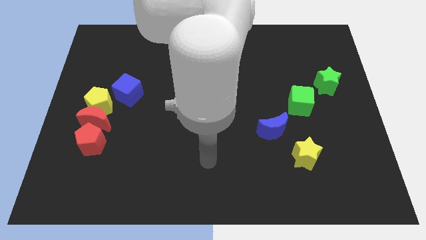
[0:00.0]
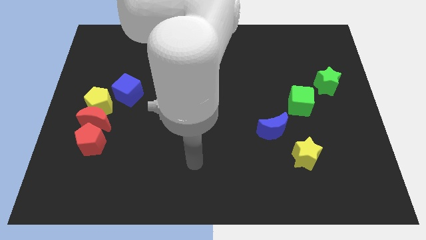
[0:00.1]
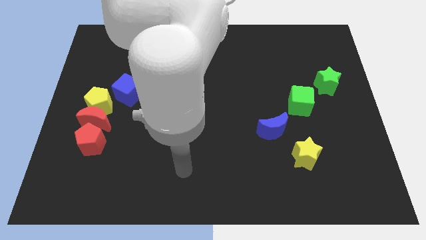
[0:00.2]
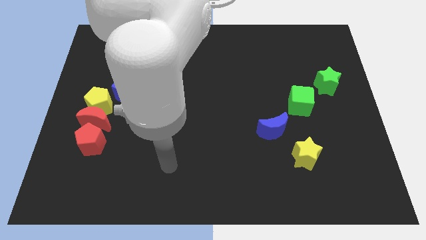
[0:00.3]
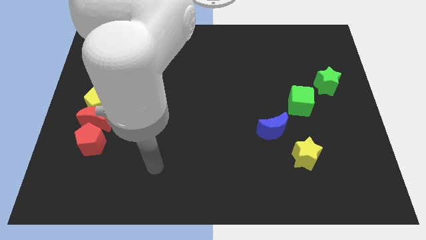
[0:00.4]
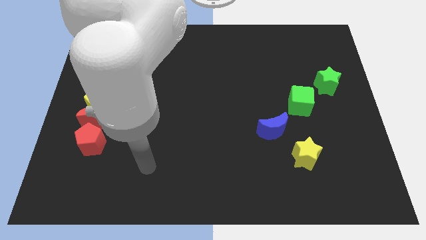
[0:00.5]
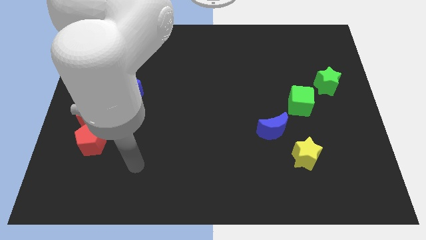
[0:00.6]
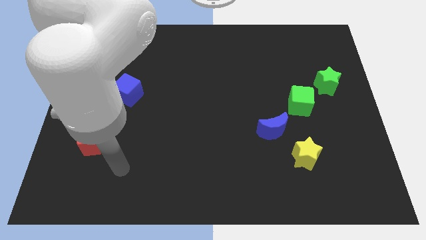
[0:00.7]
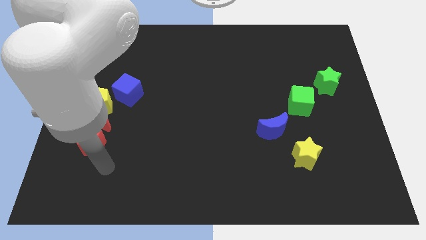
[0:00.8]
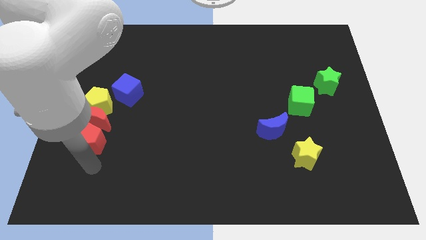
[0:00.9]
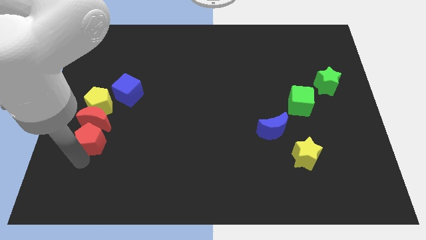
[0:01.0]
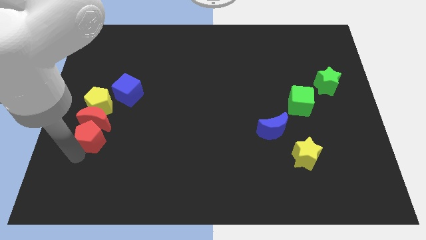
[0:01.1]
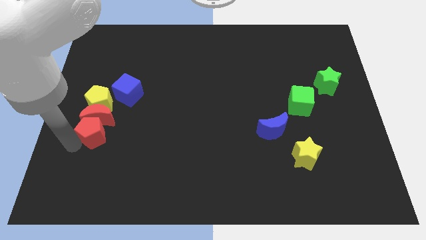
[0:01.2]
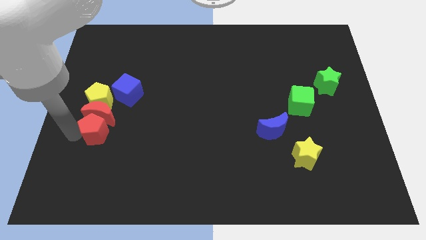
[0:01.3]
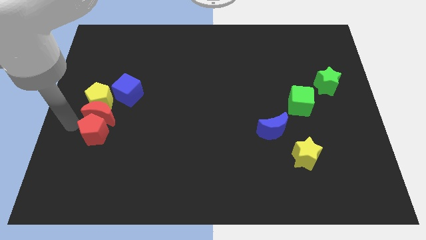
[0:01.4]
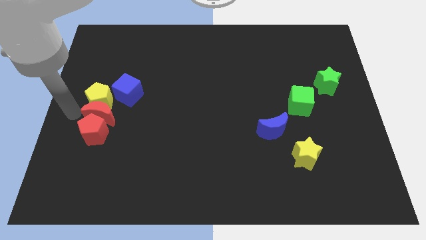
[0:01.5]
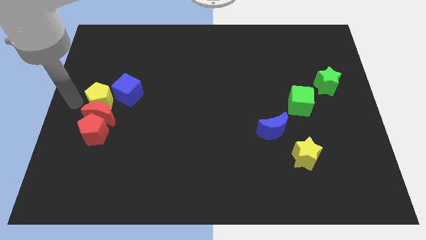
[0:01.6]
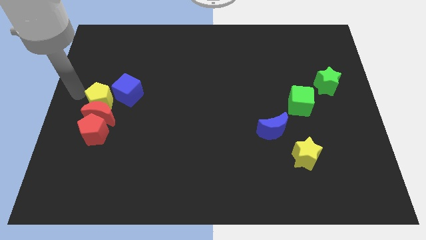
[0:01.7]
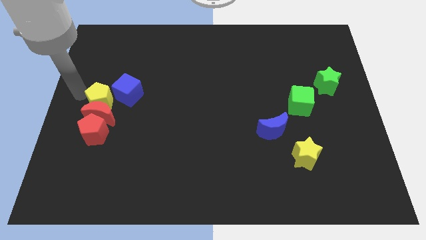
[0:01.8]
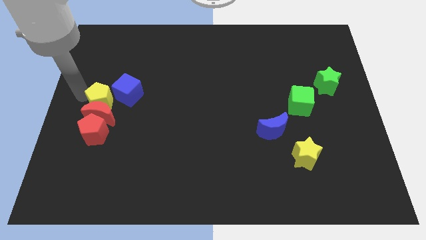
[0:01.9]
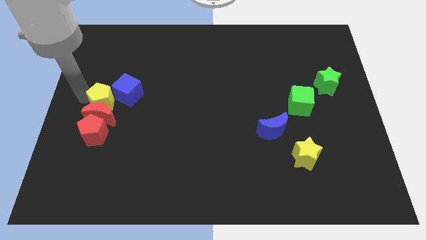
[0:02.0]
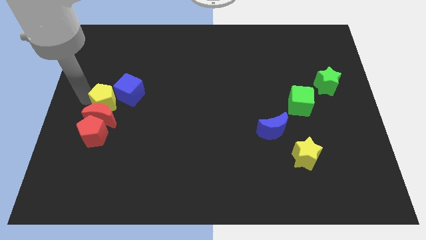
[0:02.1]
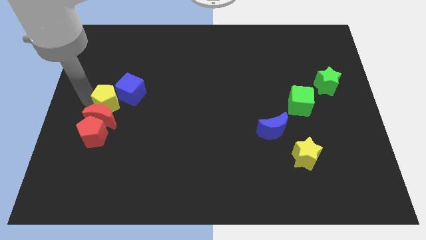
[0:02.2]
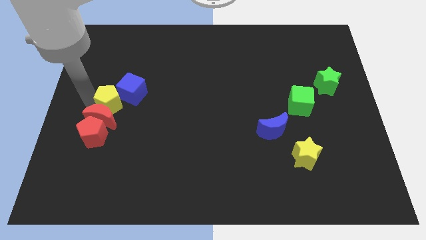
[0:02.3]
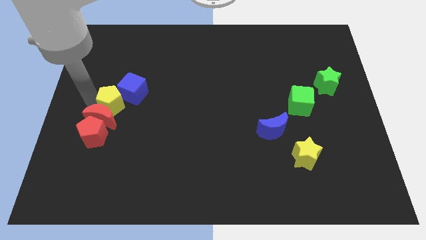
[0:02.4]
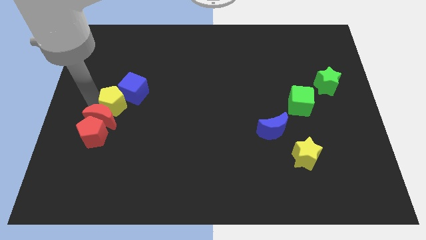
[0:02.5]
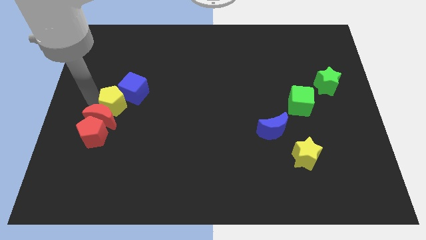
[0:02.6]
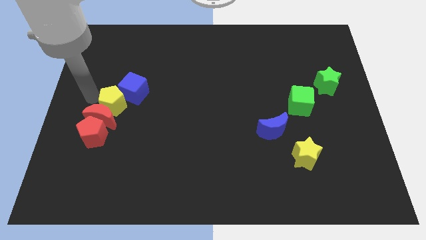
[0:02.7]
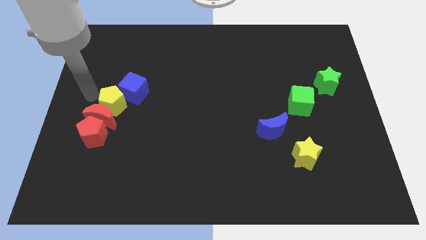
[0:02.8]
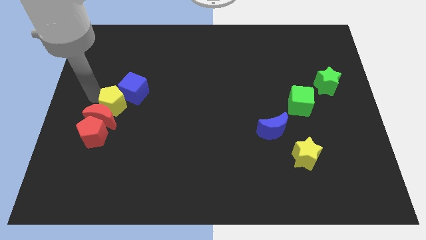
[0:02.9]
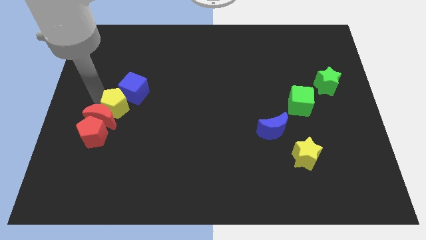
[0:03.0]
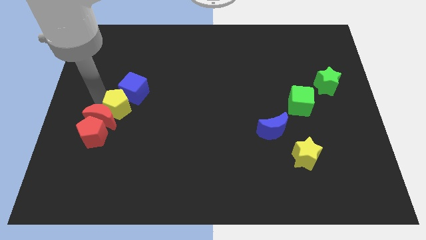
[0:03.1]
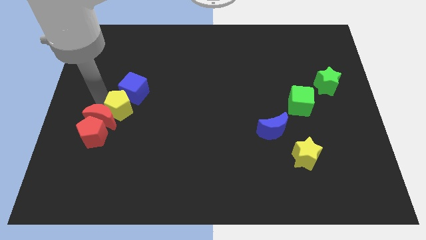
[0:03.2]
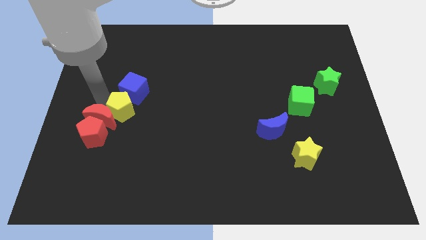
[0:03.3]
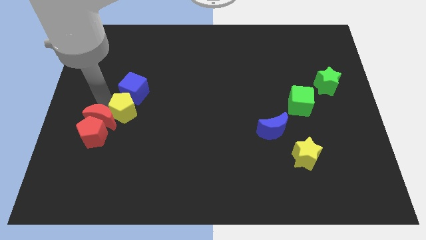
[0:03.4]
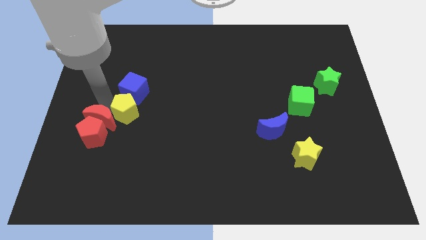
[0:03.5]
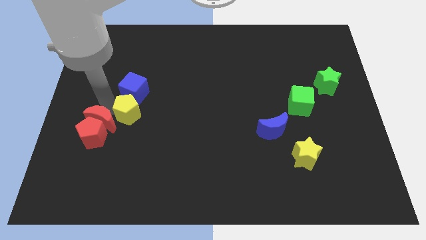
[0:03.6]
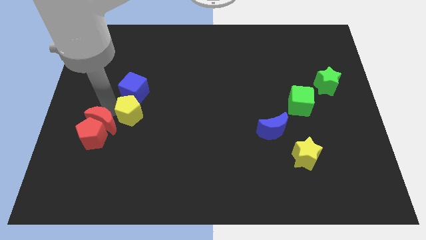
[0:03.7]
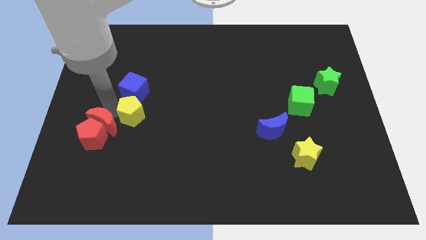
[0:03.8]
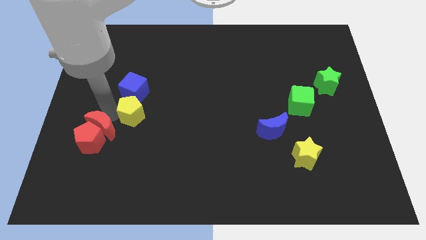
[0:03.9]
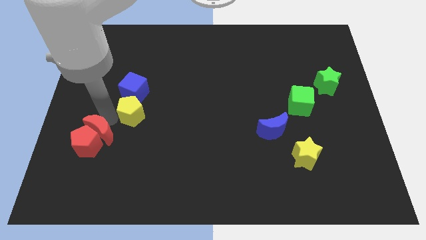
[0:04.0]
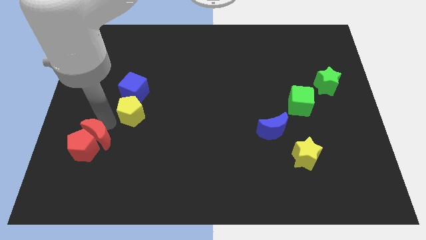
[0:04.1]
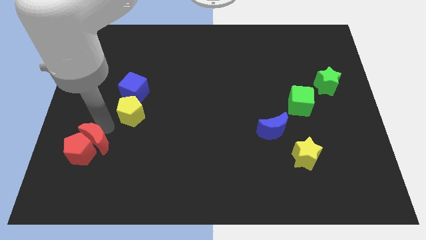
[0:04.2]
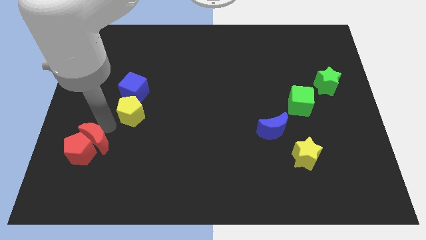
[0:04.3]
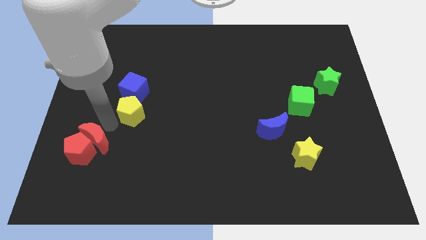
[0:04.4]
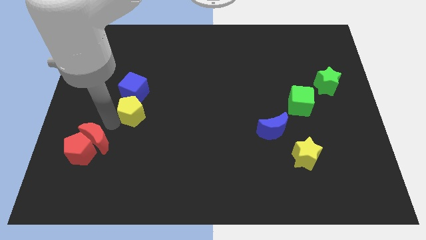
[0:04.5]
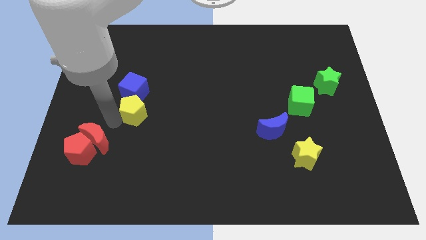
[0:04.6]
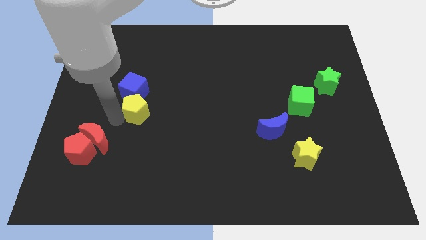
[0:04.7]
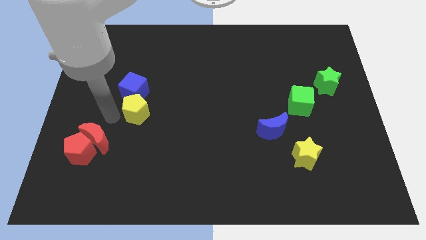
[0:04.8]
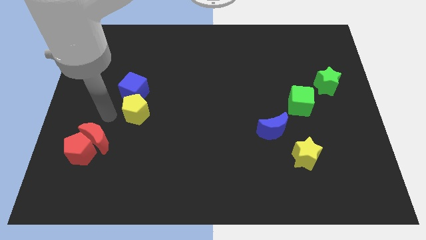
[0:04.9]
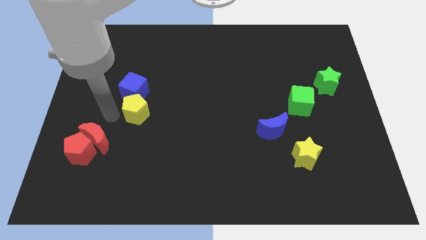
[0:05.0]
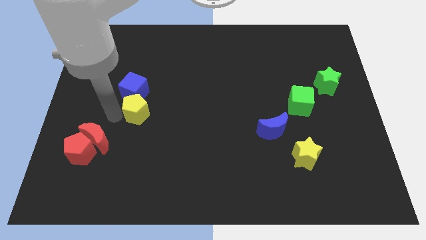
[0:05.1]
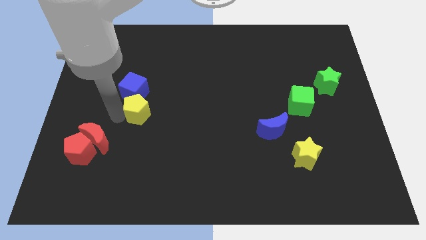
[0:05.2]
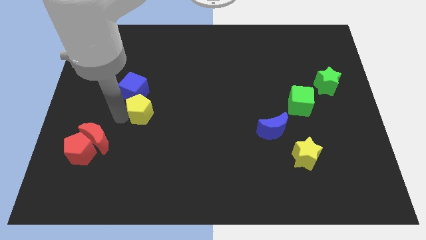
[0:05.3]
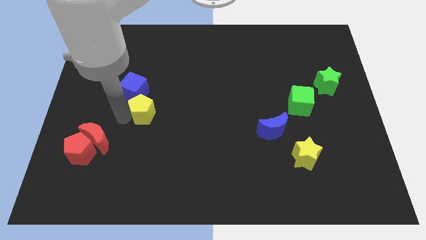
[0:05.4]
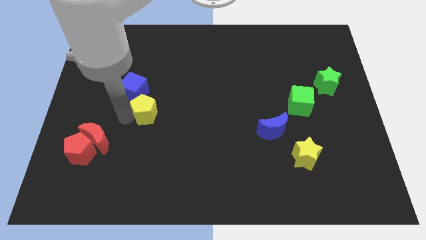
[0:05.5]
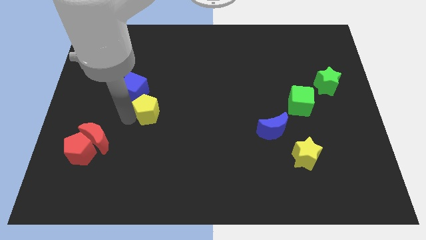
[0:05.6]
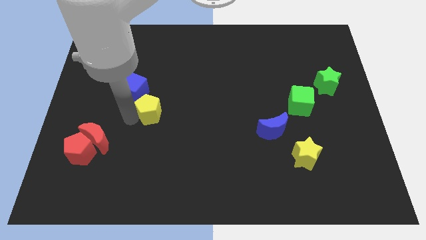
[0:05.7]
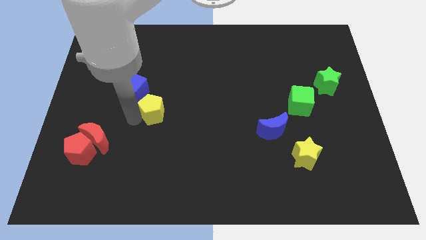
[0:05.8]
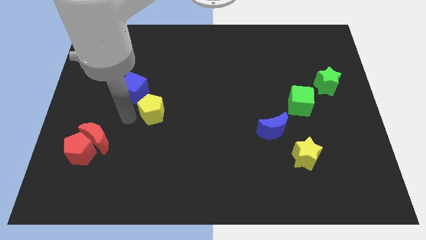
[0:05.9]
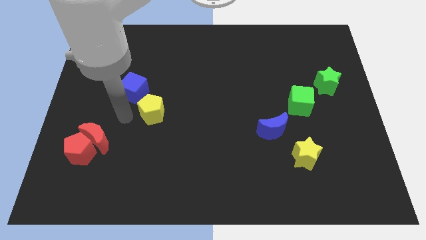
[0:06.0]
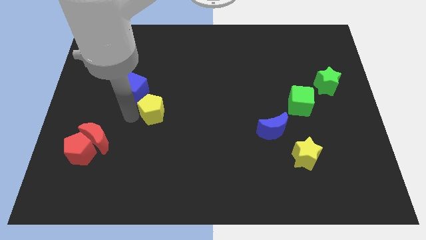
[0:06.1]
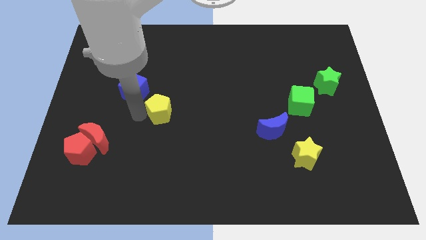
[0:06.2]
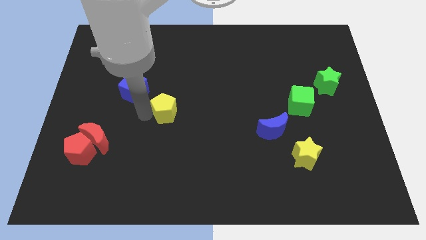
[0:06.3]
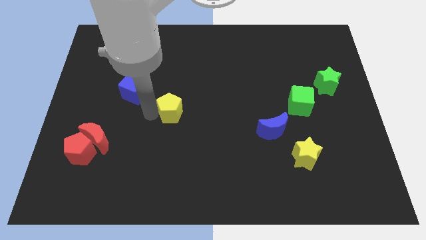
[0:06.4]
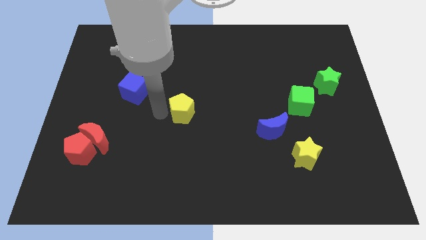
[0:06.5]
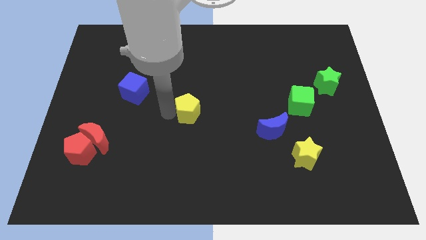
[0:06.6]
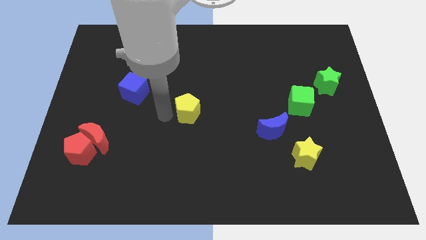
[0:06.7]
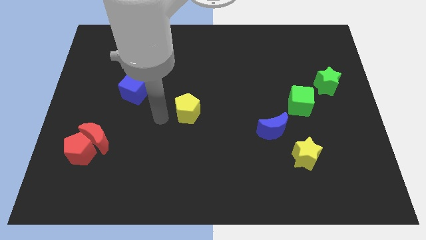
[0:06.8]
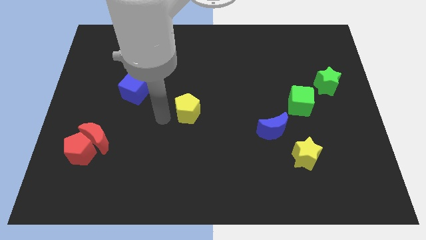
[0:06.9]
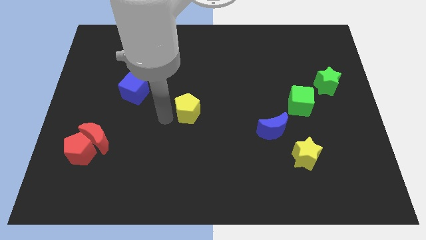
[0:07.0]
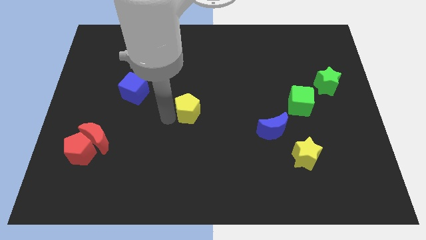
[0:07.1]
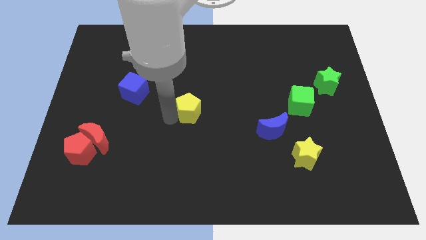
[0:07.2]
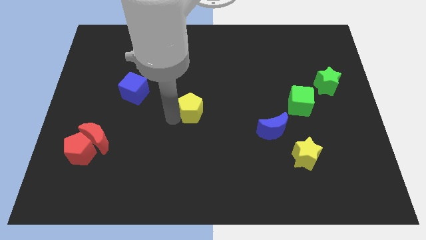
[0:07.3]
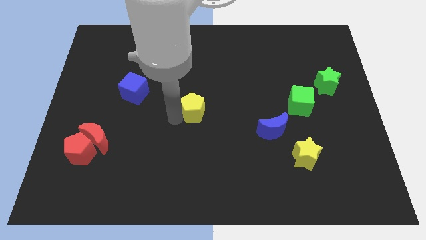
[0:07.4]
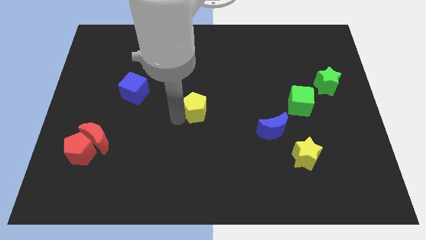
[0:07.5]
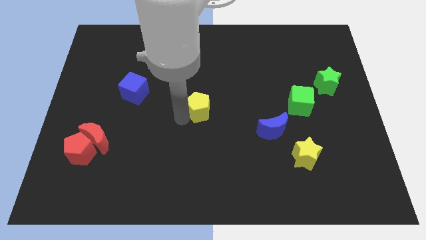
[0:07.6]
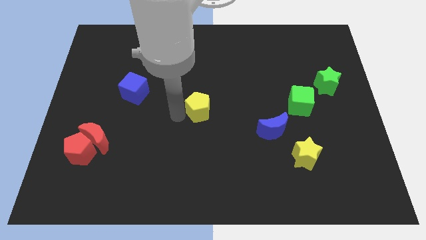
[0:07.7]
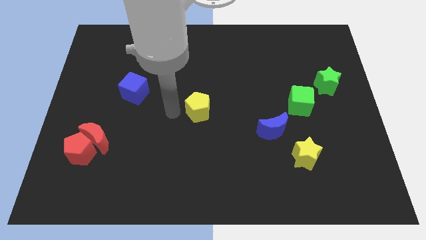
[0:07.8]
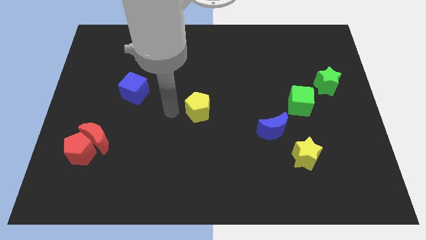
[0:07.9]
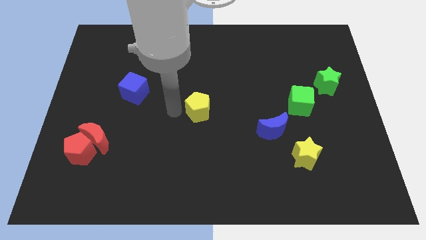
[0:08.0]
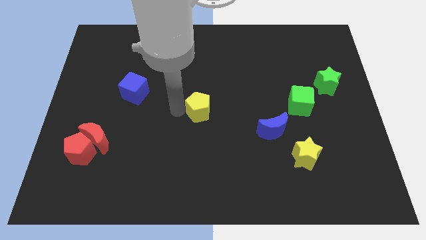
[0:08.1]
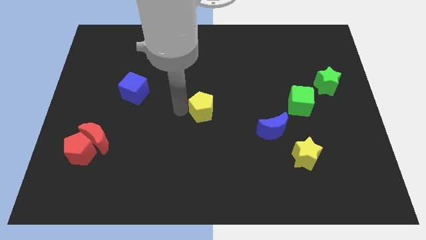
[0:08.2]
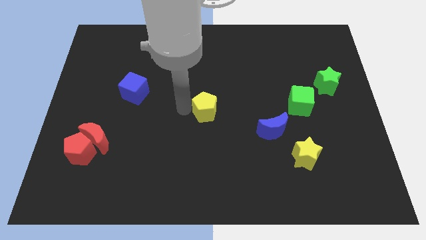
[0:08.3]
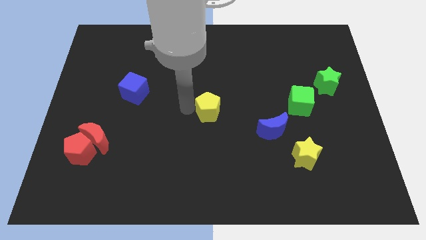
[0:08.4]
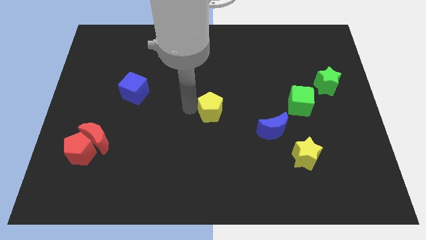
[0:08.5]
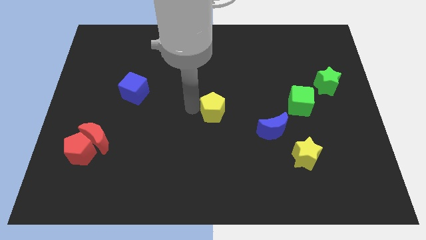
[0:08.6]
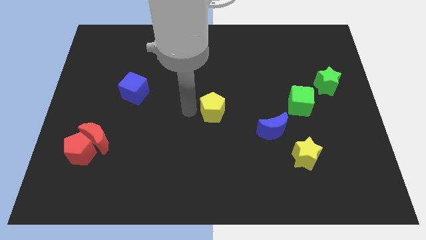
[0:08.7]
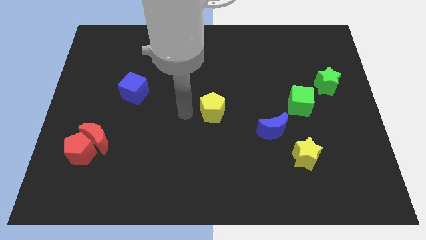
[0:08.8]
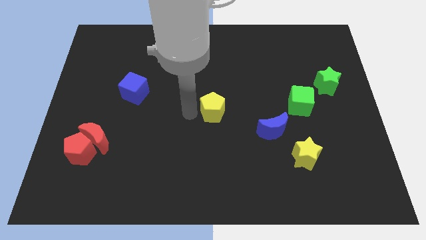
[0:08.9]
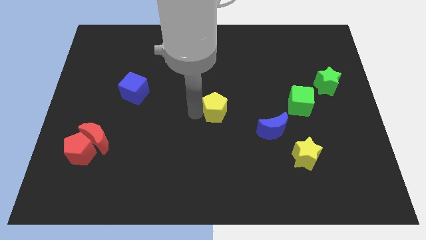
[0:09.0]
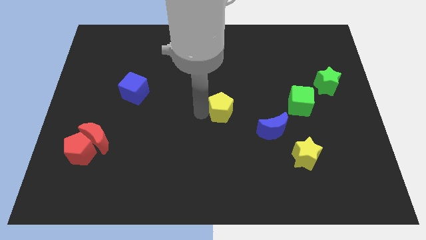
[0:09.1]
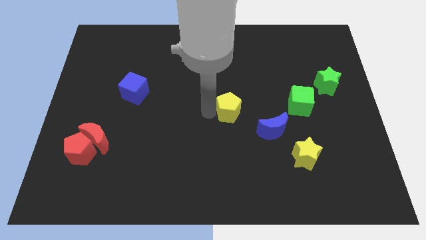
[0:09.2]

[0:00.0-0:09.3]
move the yellow pentagon to the top left of the blue moon
